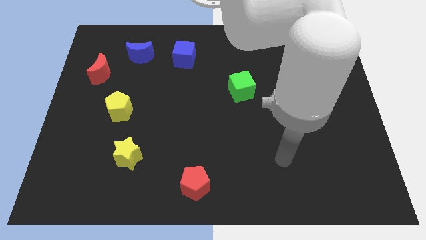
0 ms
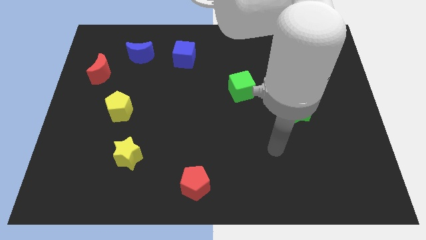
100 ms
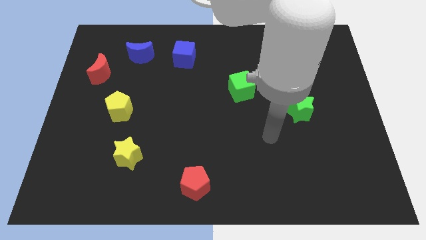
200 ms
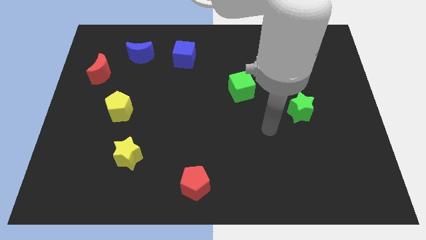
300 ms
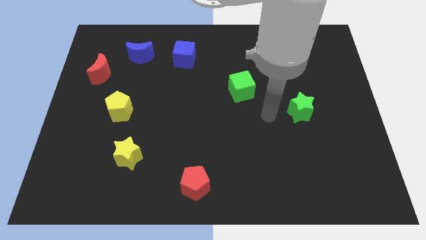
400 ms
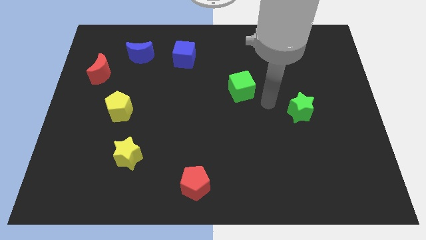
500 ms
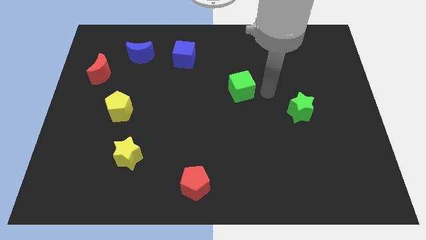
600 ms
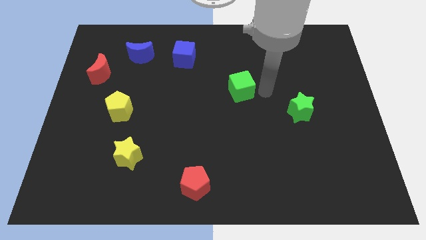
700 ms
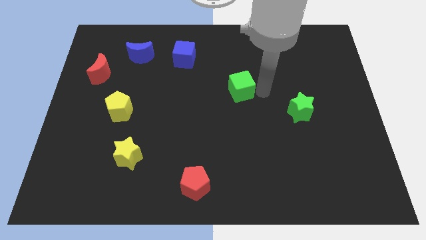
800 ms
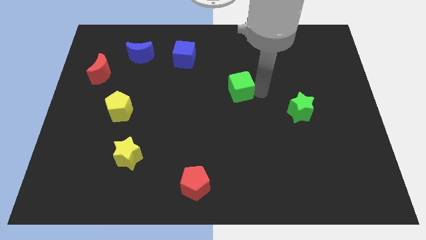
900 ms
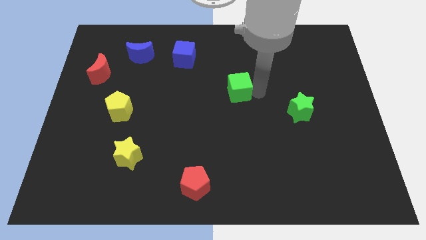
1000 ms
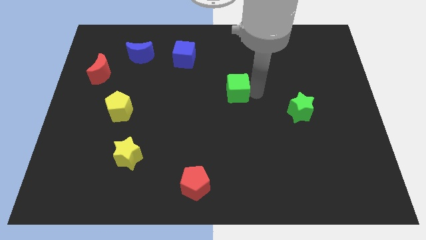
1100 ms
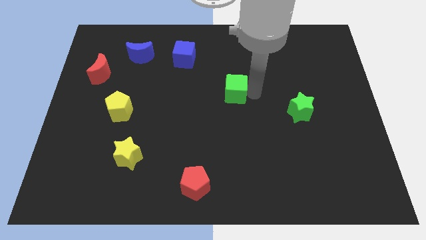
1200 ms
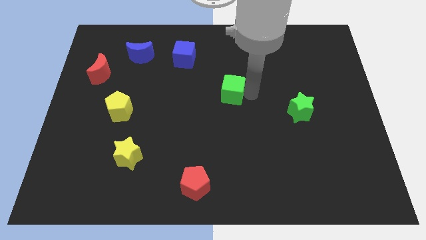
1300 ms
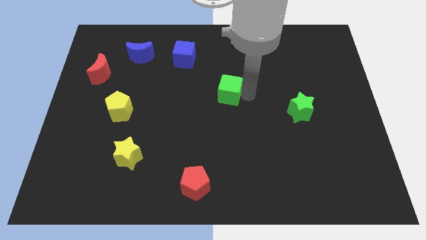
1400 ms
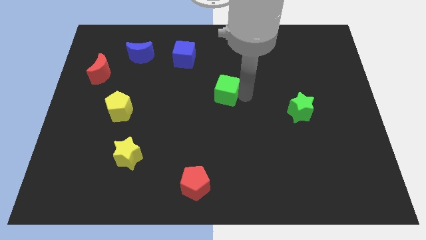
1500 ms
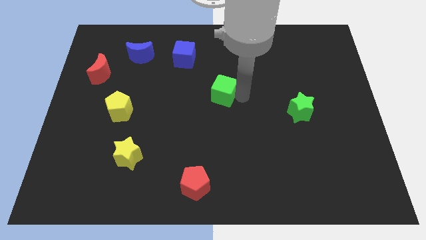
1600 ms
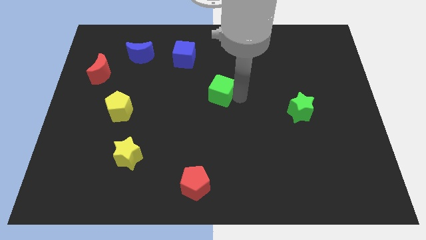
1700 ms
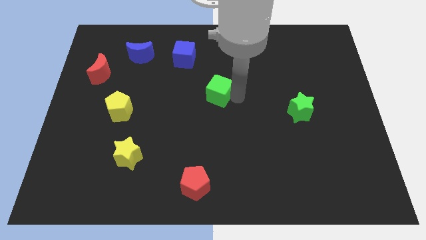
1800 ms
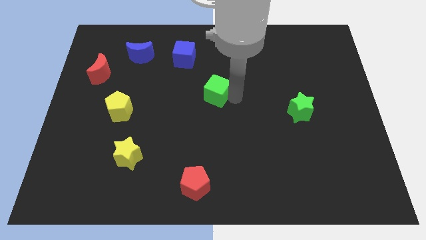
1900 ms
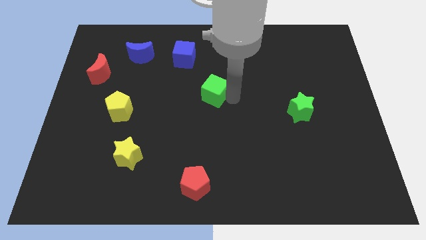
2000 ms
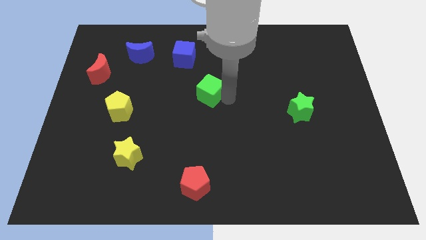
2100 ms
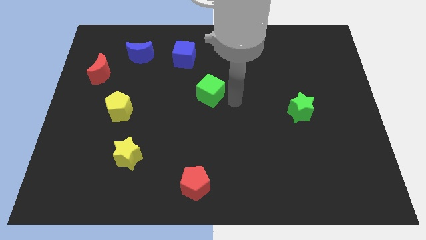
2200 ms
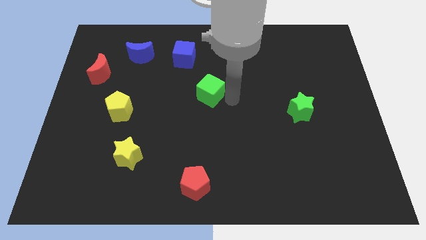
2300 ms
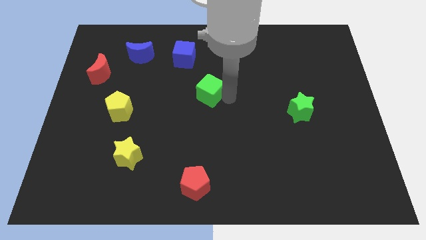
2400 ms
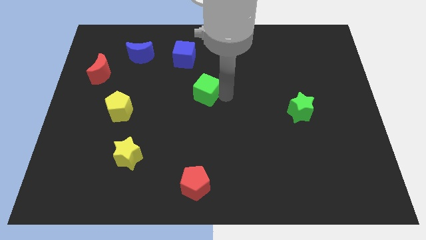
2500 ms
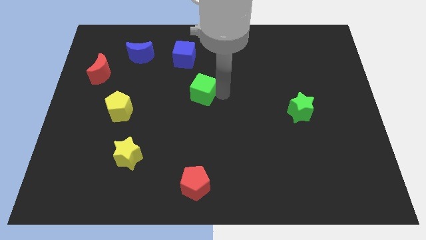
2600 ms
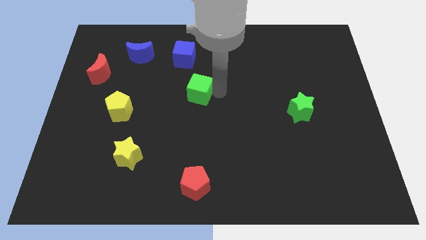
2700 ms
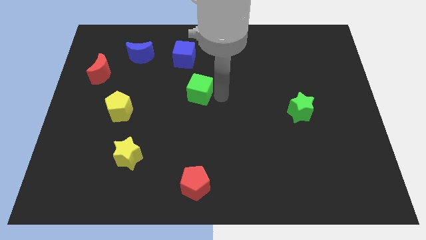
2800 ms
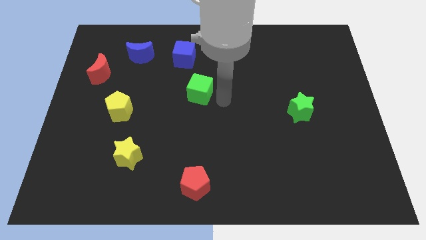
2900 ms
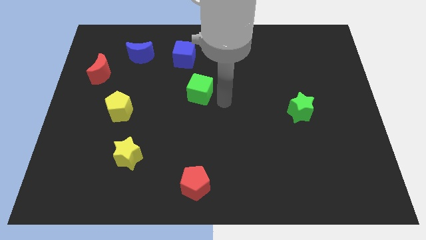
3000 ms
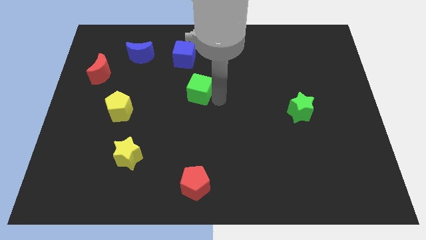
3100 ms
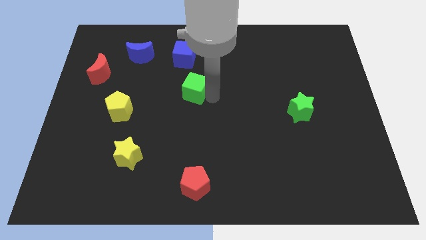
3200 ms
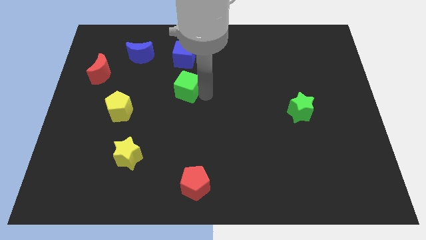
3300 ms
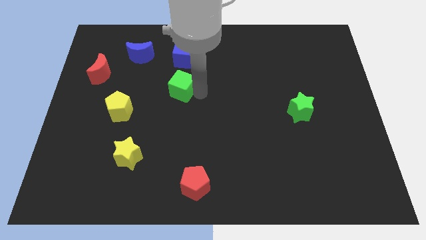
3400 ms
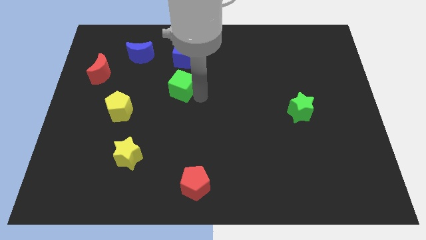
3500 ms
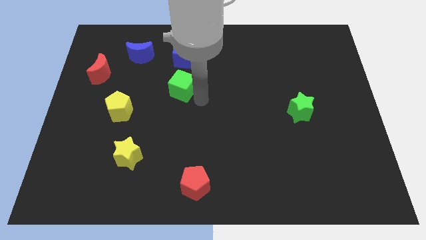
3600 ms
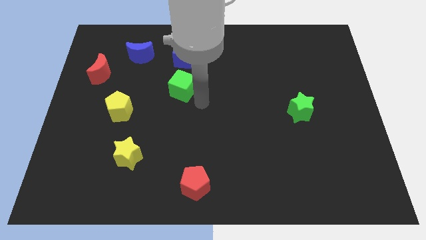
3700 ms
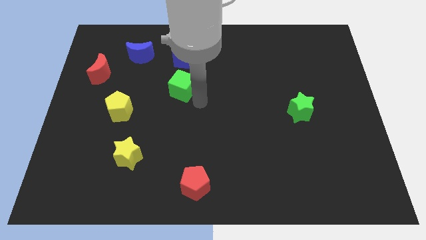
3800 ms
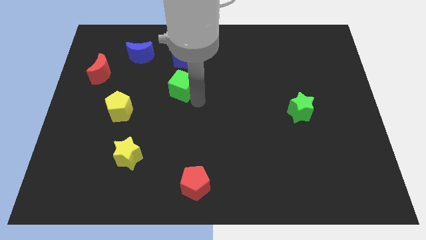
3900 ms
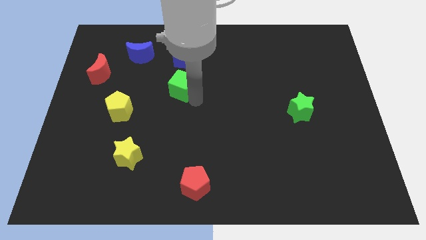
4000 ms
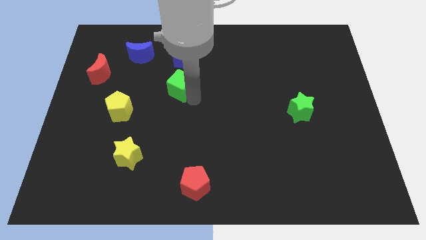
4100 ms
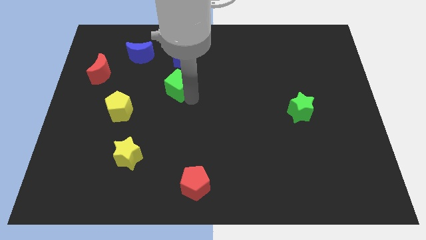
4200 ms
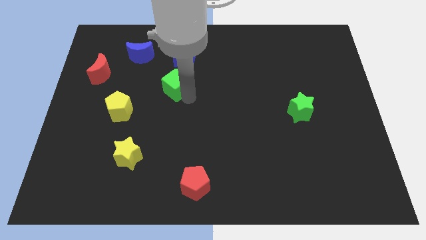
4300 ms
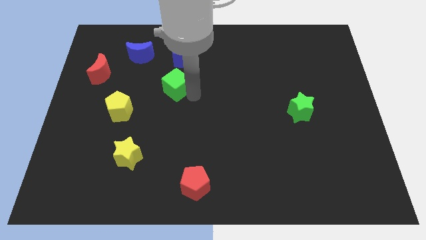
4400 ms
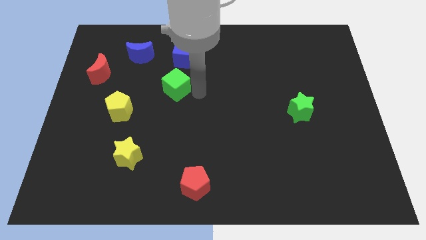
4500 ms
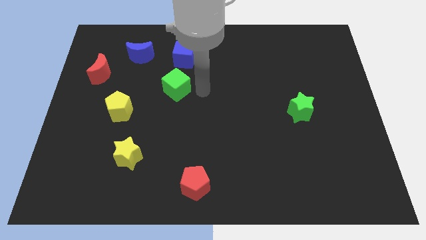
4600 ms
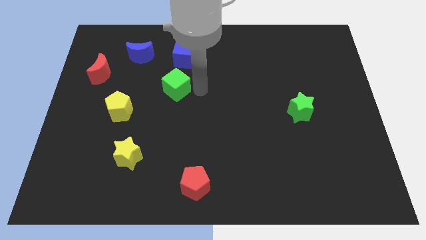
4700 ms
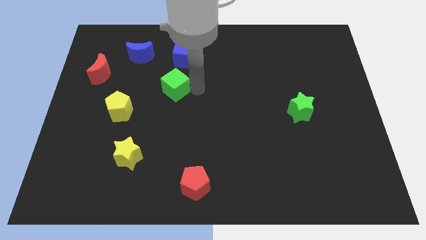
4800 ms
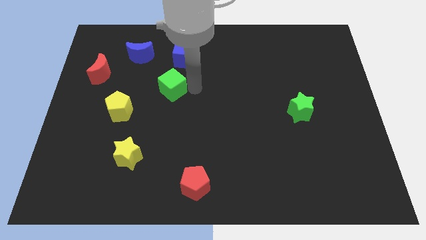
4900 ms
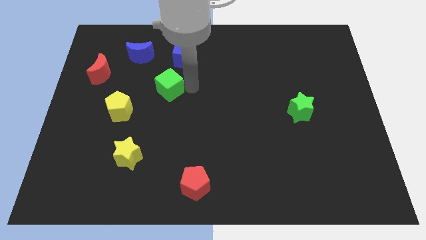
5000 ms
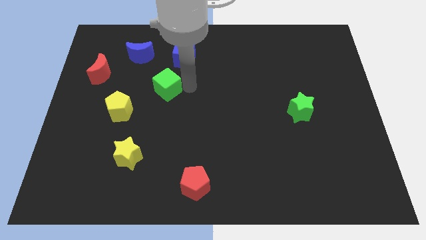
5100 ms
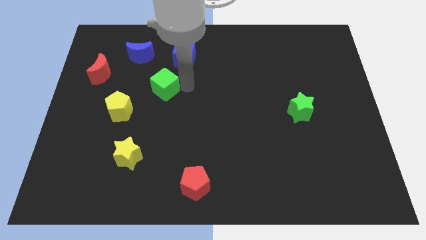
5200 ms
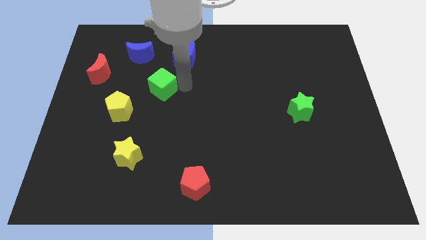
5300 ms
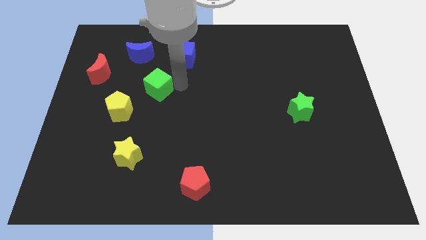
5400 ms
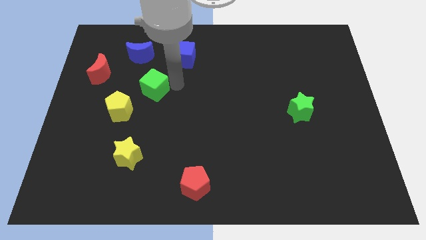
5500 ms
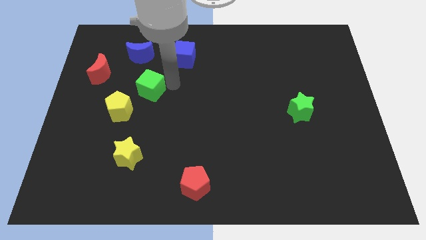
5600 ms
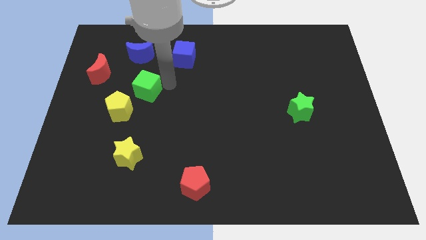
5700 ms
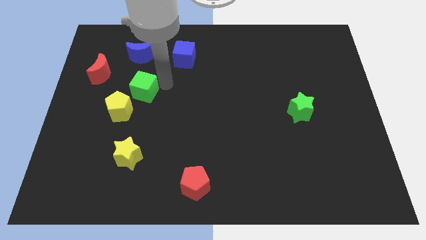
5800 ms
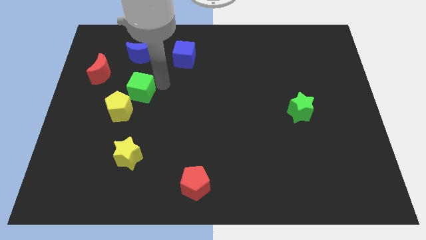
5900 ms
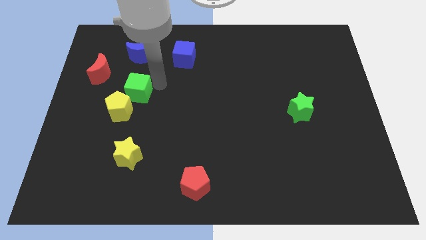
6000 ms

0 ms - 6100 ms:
put the green cube to the bottom right of the red moon
